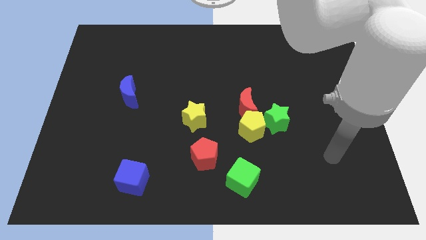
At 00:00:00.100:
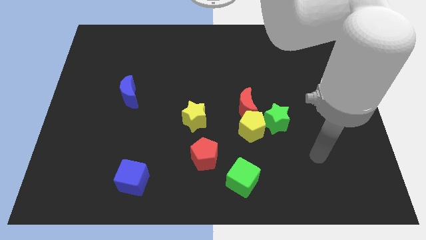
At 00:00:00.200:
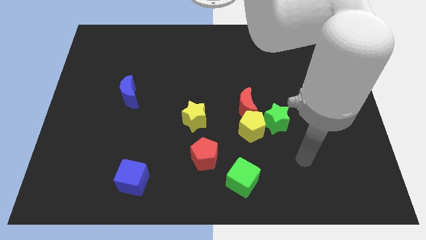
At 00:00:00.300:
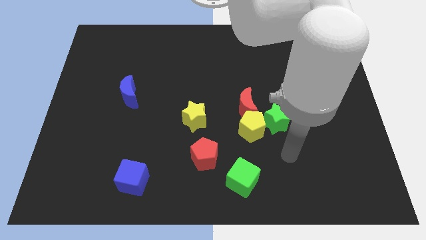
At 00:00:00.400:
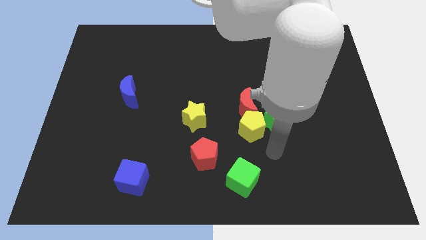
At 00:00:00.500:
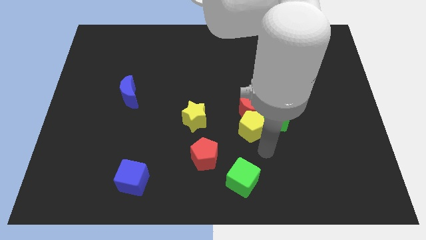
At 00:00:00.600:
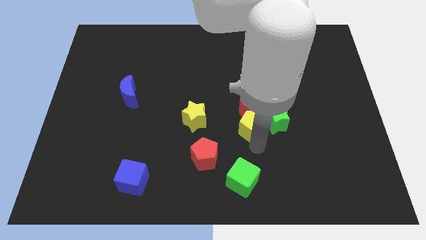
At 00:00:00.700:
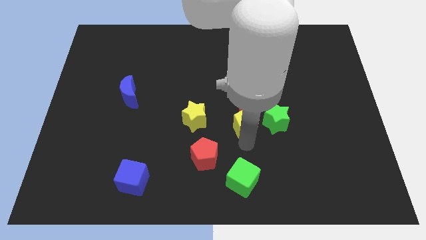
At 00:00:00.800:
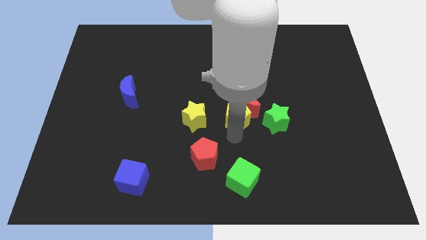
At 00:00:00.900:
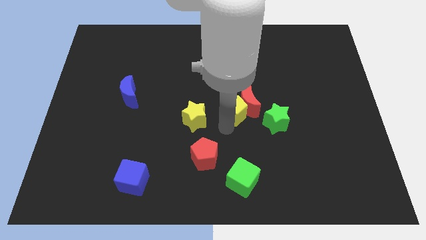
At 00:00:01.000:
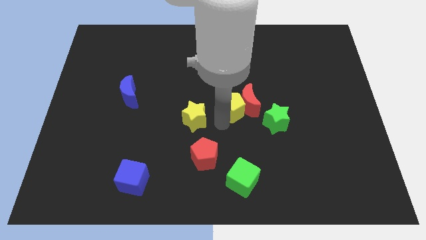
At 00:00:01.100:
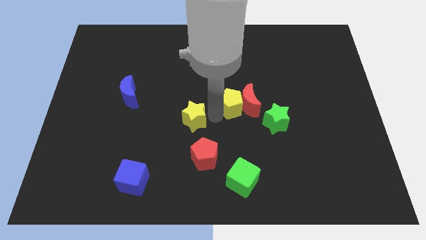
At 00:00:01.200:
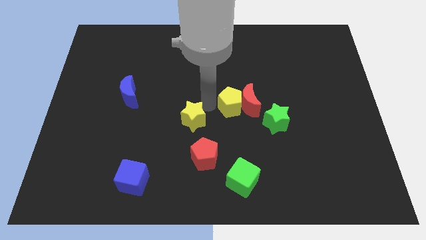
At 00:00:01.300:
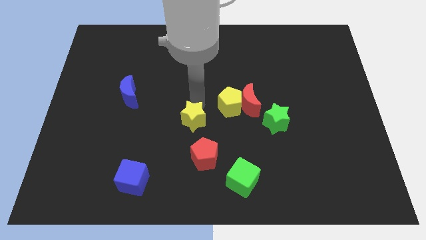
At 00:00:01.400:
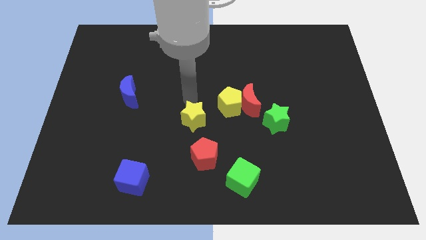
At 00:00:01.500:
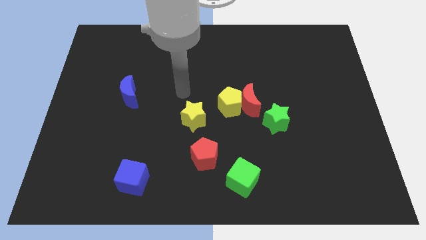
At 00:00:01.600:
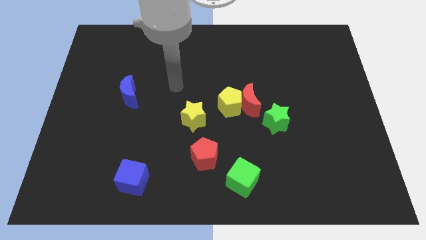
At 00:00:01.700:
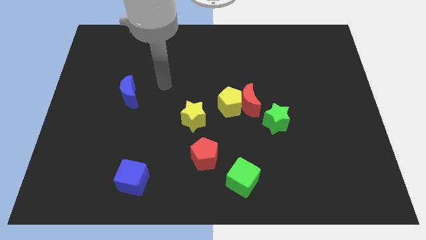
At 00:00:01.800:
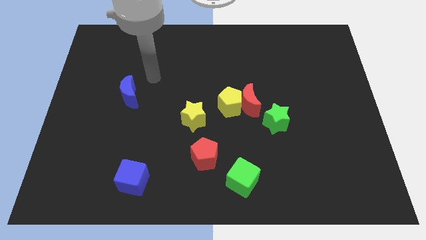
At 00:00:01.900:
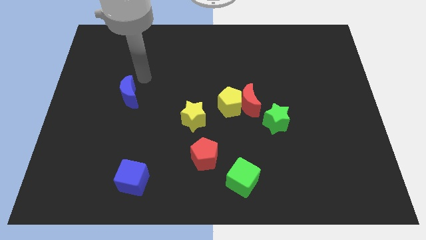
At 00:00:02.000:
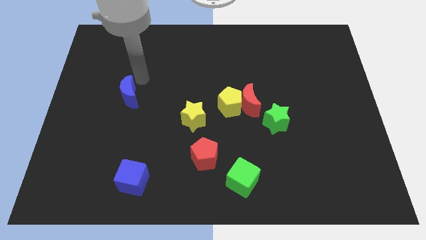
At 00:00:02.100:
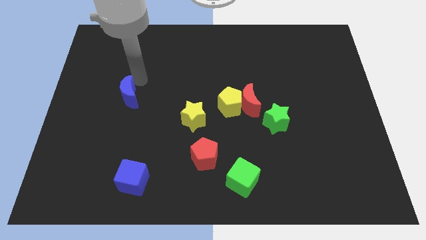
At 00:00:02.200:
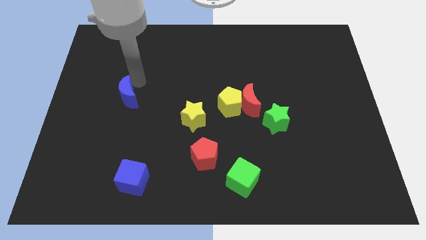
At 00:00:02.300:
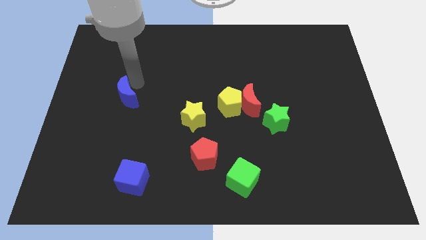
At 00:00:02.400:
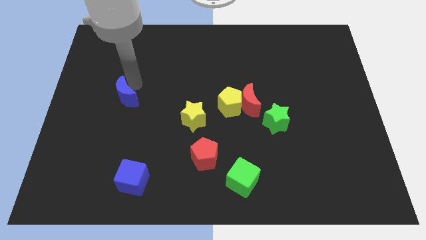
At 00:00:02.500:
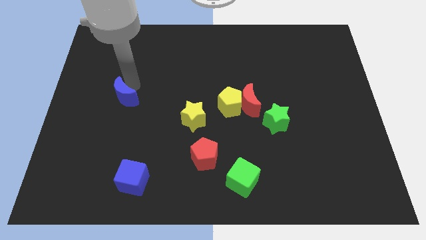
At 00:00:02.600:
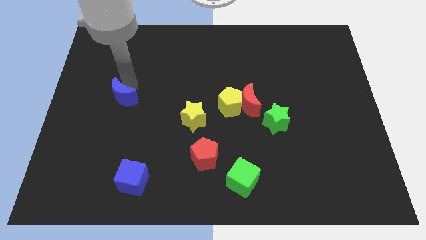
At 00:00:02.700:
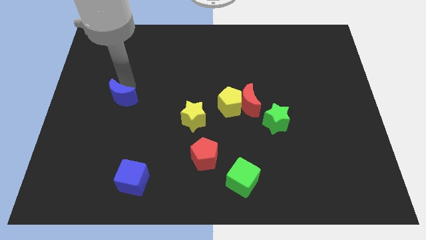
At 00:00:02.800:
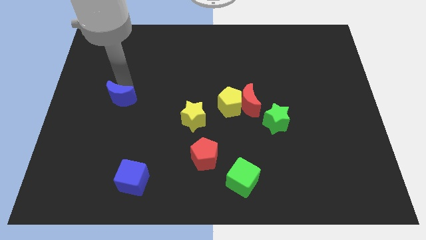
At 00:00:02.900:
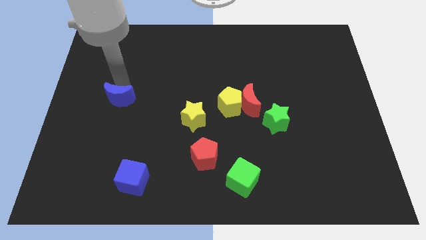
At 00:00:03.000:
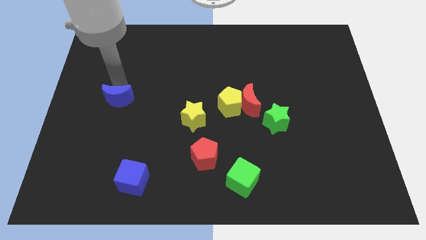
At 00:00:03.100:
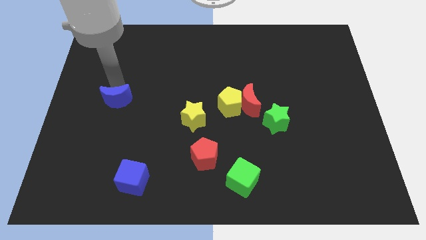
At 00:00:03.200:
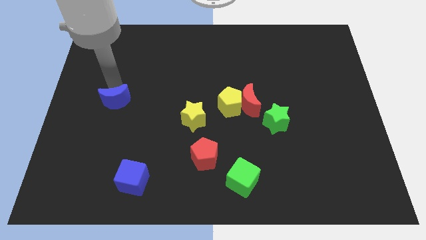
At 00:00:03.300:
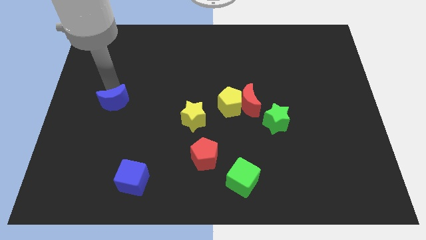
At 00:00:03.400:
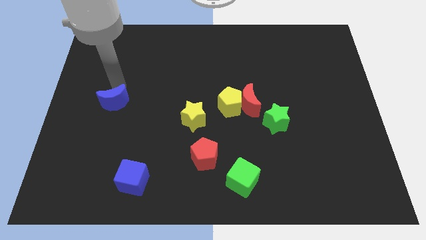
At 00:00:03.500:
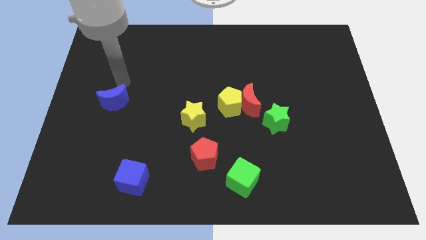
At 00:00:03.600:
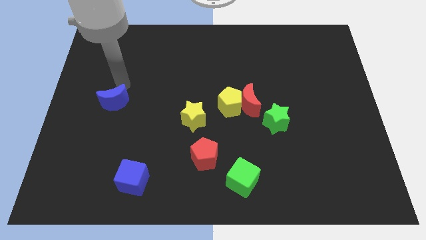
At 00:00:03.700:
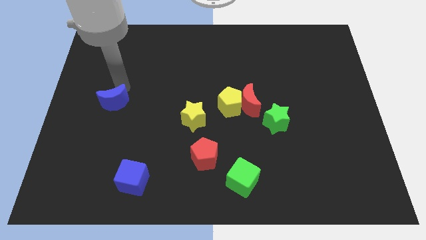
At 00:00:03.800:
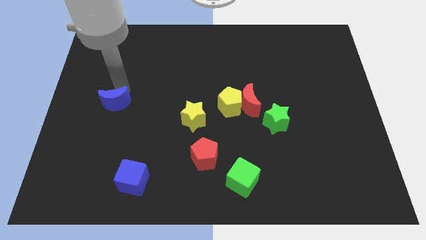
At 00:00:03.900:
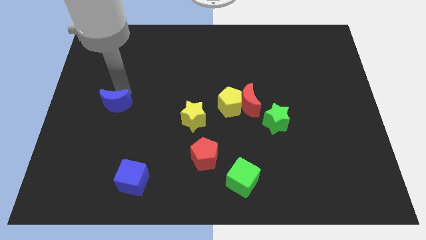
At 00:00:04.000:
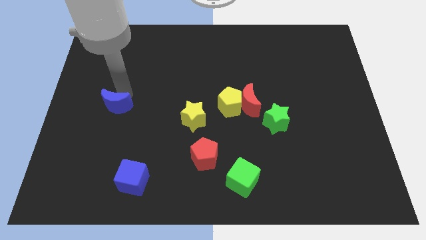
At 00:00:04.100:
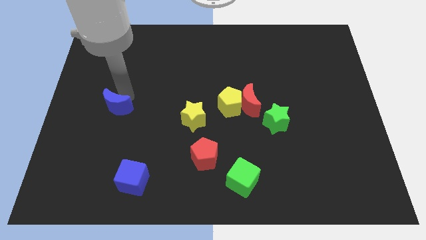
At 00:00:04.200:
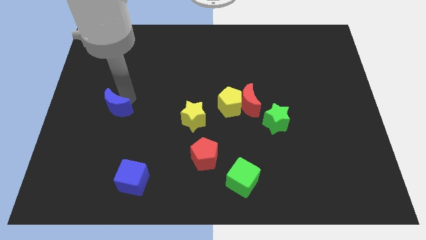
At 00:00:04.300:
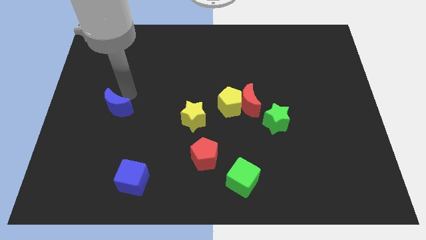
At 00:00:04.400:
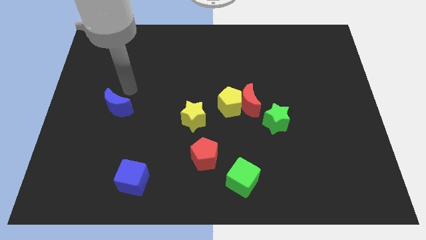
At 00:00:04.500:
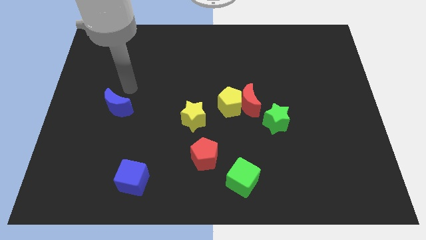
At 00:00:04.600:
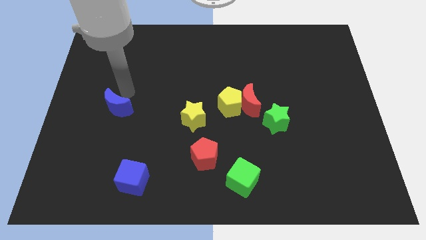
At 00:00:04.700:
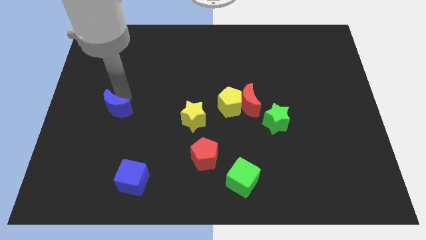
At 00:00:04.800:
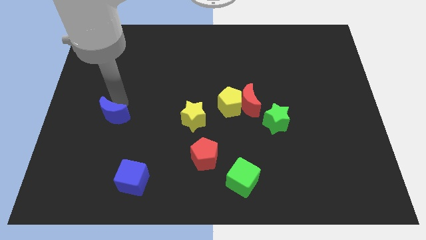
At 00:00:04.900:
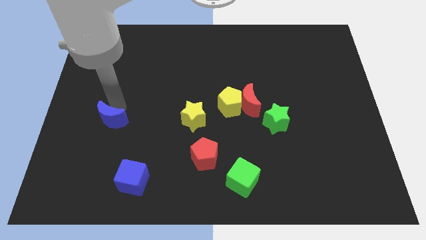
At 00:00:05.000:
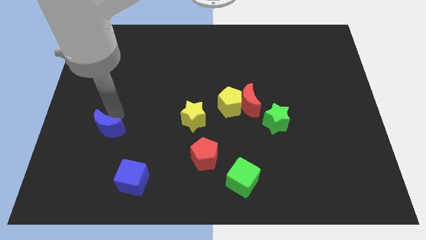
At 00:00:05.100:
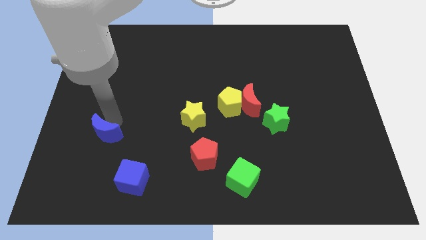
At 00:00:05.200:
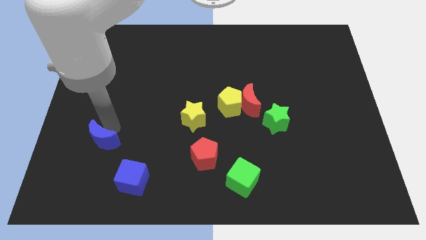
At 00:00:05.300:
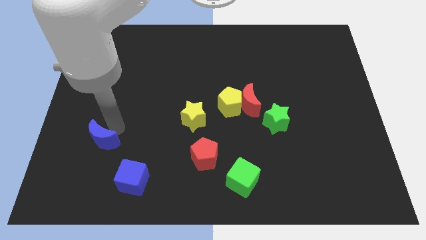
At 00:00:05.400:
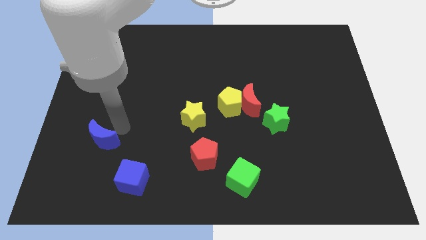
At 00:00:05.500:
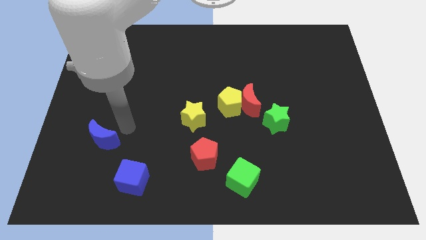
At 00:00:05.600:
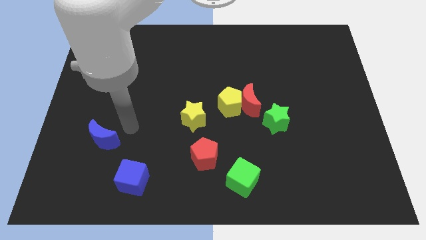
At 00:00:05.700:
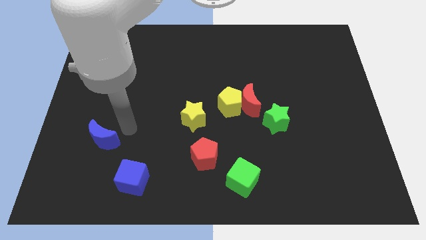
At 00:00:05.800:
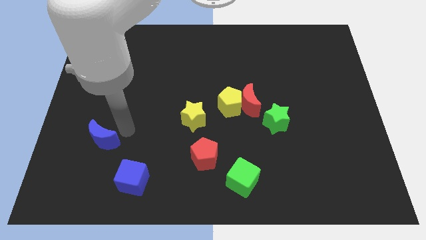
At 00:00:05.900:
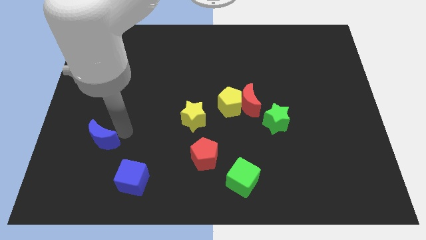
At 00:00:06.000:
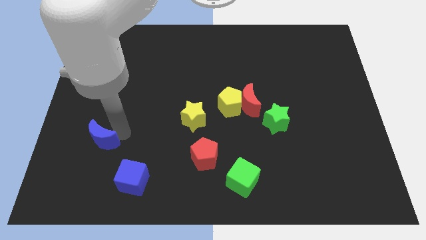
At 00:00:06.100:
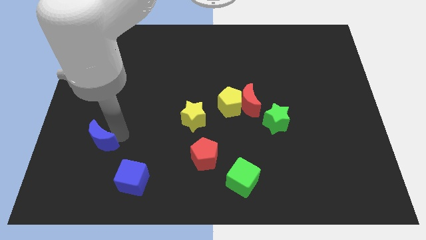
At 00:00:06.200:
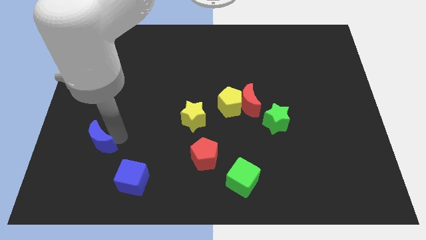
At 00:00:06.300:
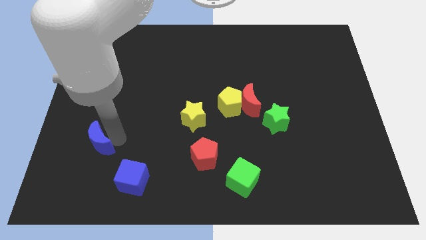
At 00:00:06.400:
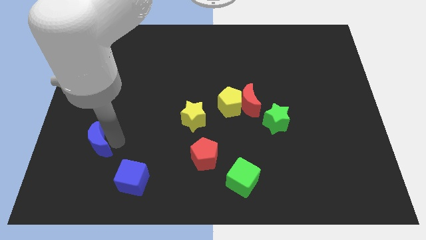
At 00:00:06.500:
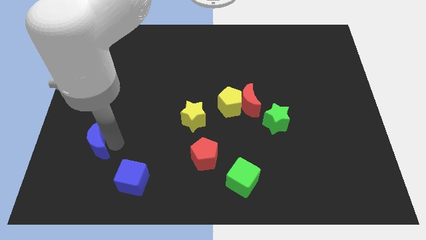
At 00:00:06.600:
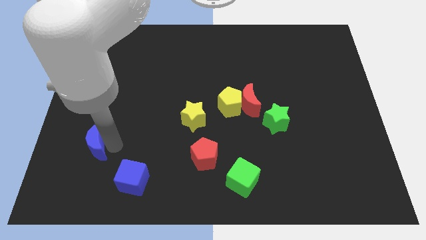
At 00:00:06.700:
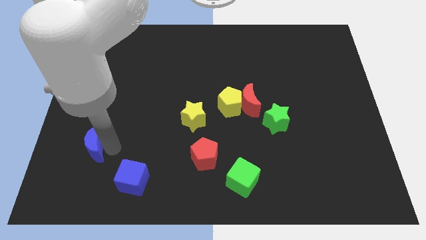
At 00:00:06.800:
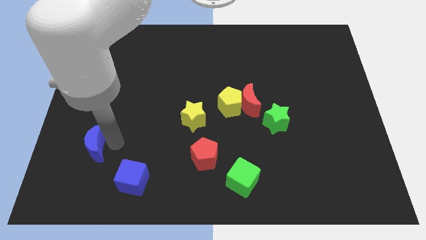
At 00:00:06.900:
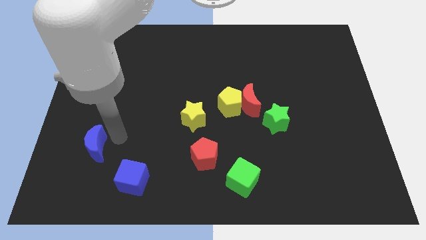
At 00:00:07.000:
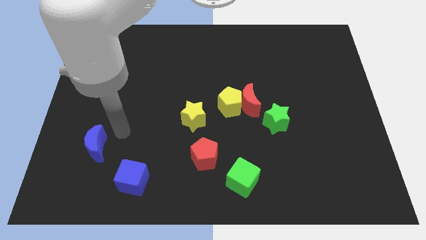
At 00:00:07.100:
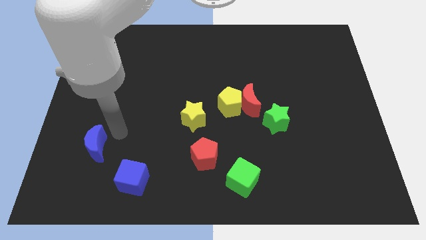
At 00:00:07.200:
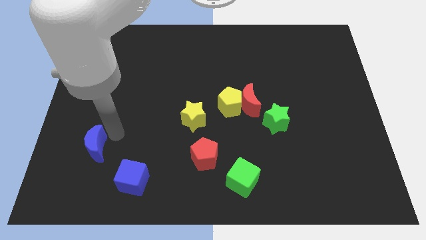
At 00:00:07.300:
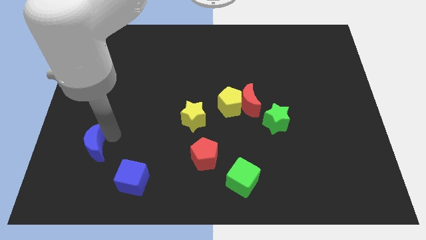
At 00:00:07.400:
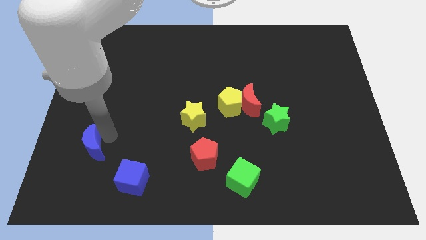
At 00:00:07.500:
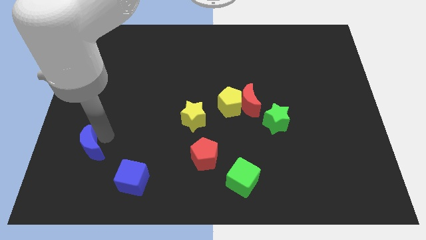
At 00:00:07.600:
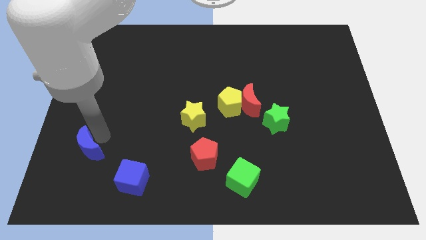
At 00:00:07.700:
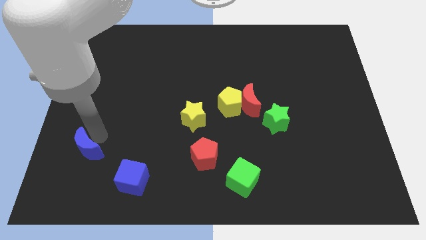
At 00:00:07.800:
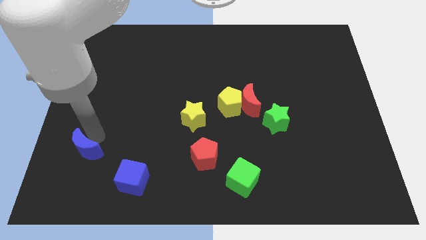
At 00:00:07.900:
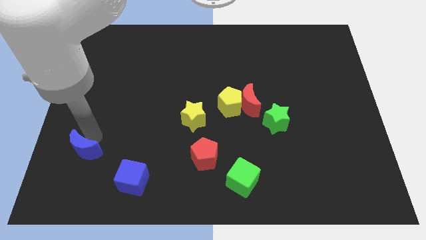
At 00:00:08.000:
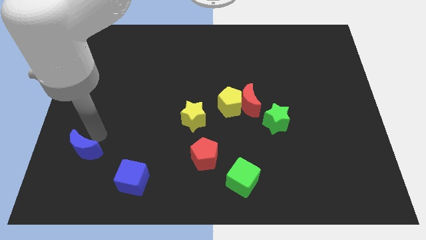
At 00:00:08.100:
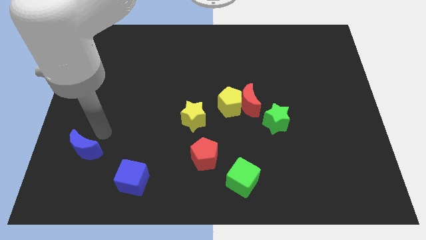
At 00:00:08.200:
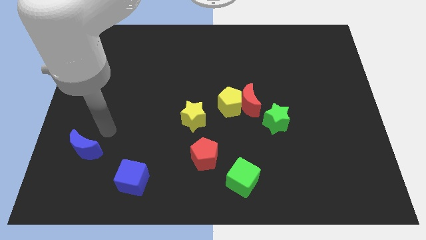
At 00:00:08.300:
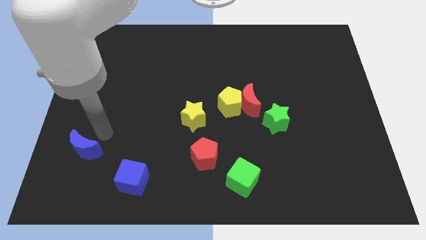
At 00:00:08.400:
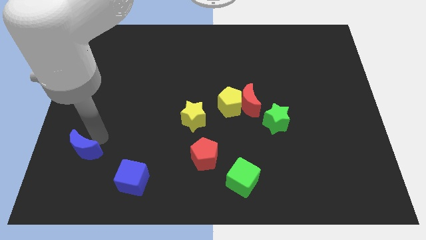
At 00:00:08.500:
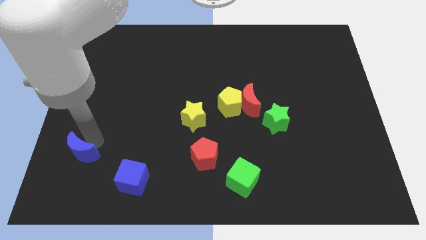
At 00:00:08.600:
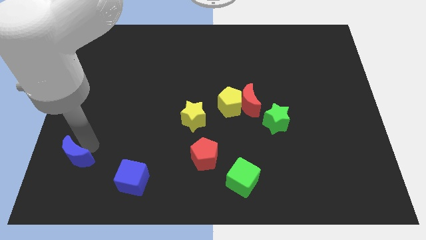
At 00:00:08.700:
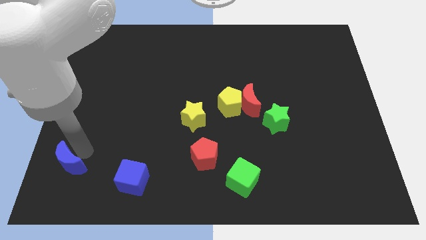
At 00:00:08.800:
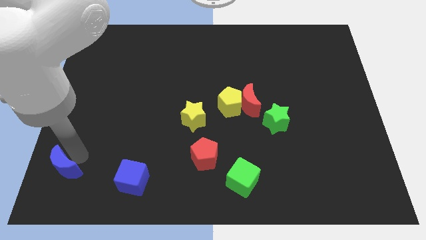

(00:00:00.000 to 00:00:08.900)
push the blue moon to the bottom left of the board
